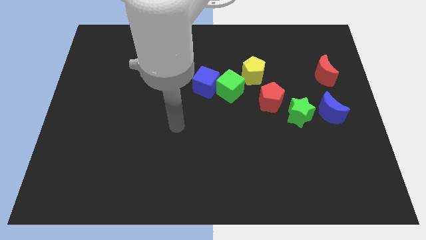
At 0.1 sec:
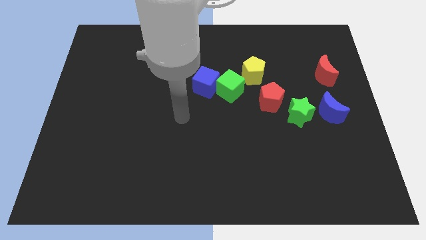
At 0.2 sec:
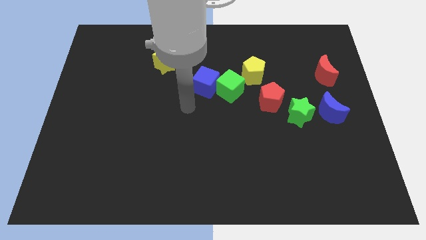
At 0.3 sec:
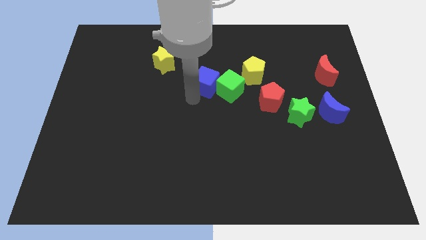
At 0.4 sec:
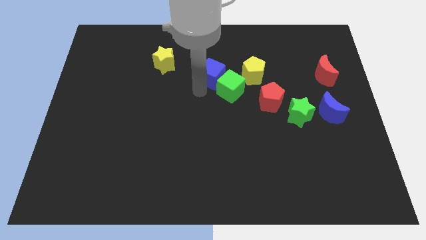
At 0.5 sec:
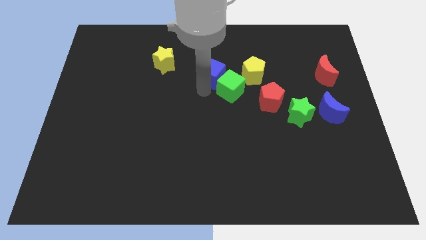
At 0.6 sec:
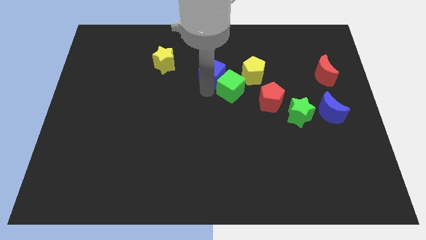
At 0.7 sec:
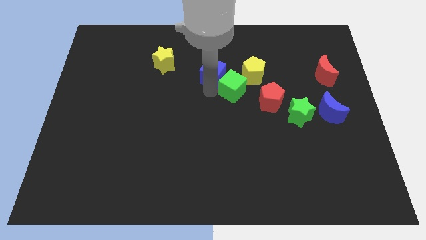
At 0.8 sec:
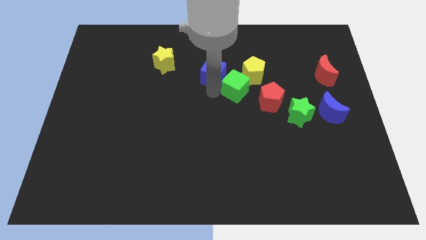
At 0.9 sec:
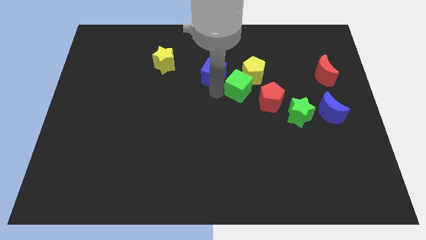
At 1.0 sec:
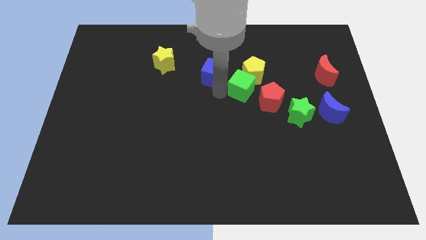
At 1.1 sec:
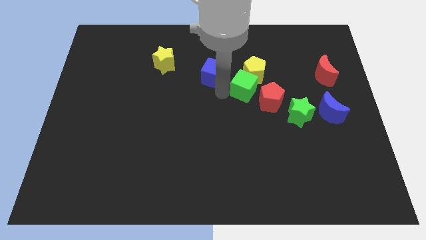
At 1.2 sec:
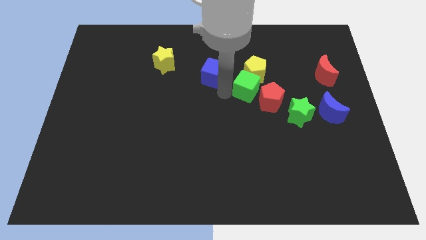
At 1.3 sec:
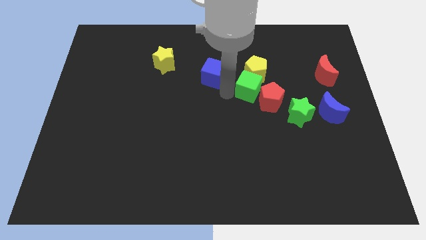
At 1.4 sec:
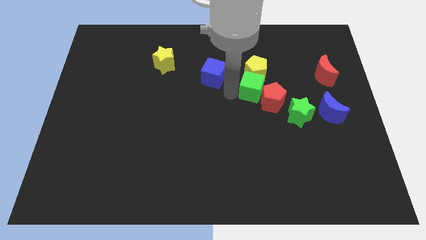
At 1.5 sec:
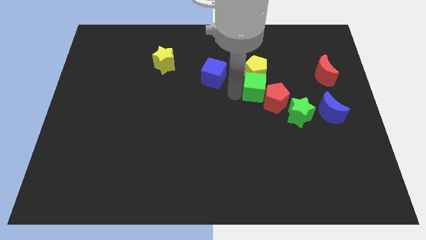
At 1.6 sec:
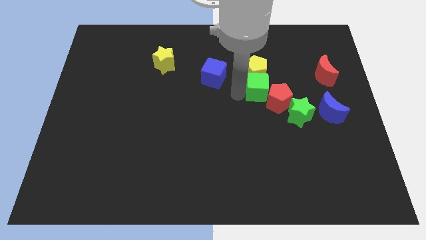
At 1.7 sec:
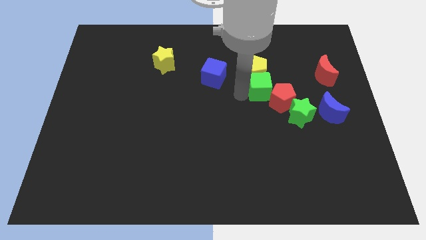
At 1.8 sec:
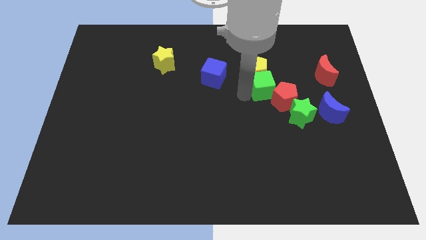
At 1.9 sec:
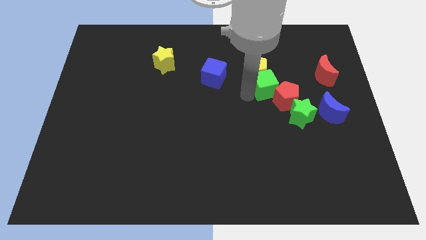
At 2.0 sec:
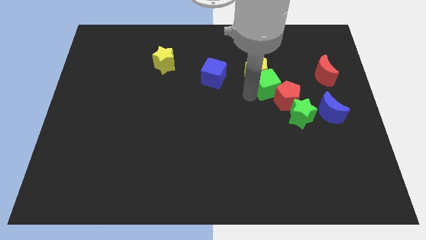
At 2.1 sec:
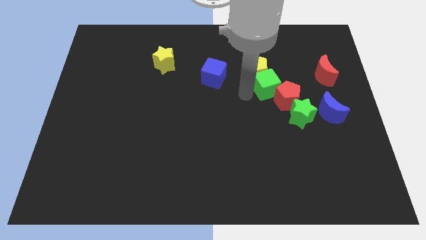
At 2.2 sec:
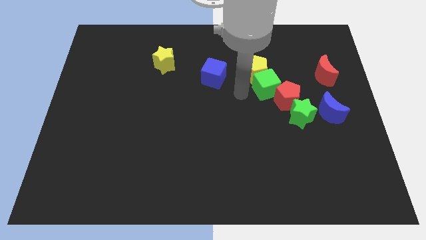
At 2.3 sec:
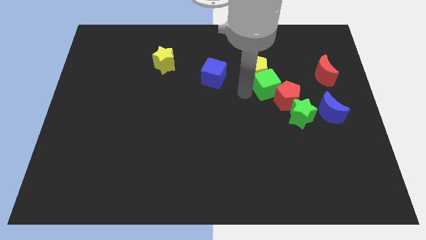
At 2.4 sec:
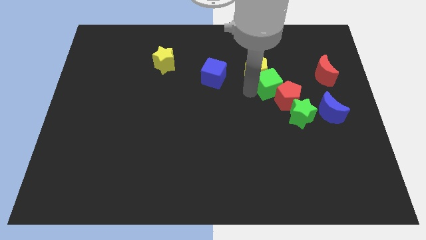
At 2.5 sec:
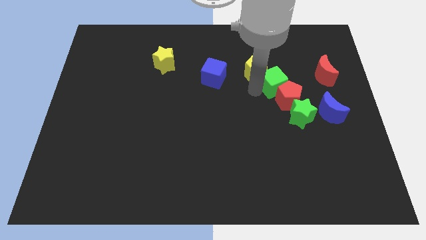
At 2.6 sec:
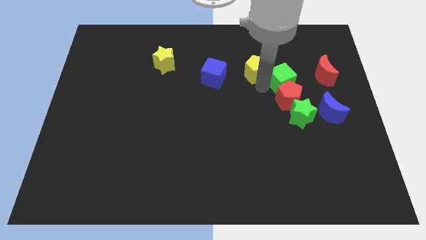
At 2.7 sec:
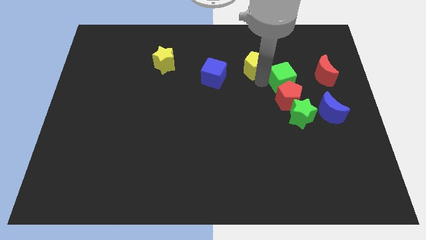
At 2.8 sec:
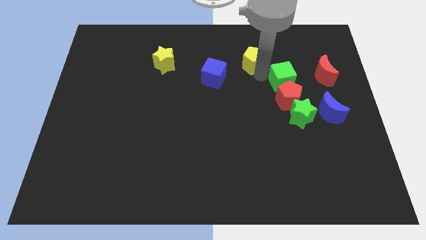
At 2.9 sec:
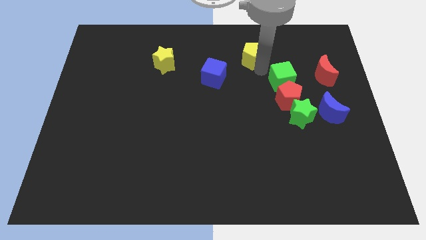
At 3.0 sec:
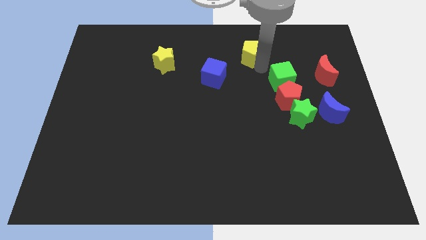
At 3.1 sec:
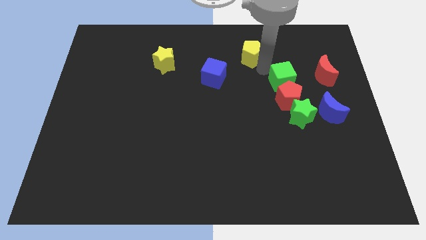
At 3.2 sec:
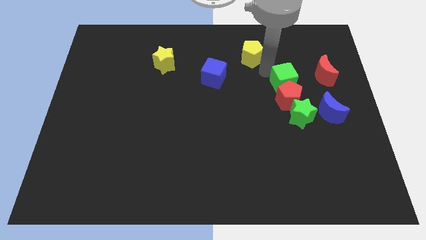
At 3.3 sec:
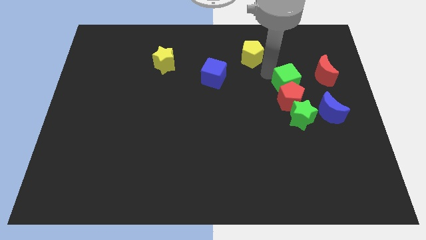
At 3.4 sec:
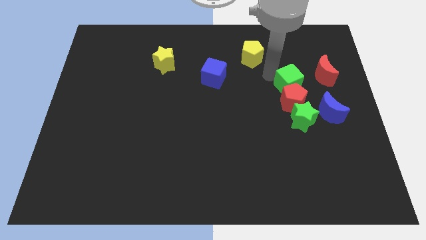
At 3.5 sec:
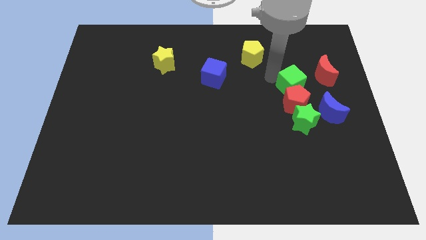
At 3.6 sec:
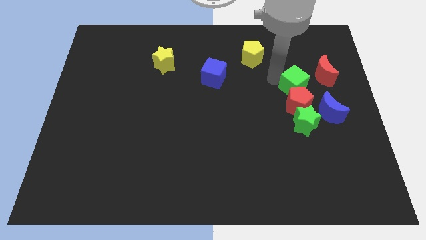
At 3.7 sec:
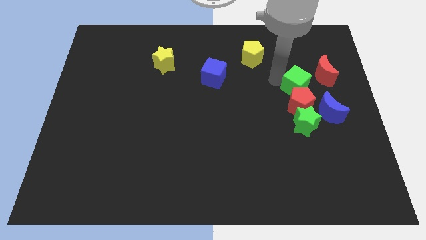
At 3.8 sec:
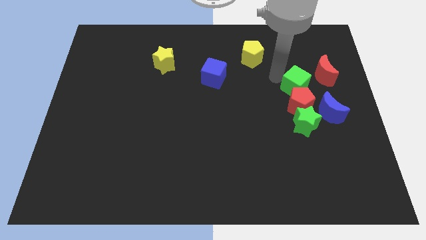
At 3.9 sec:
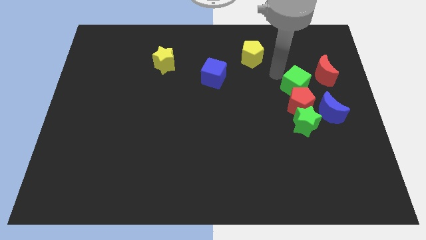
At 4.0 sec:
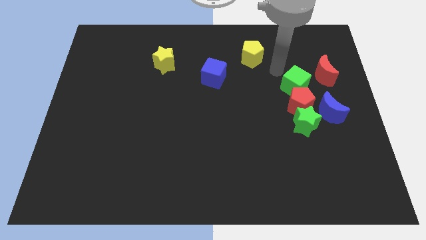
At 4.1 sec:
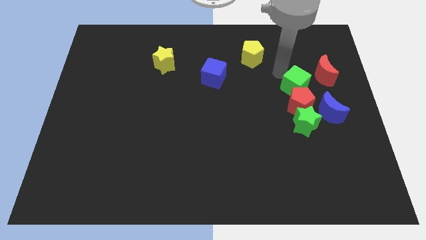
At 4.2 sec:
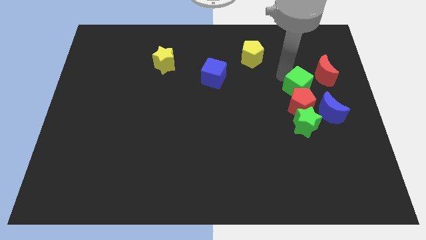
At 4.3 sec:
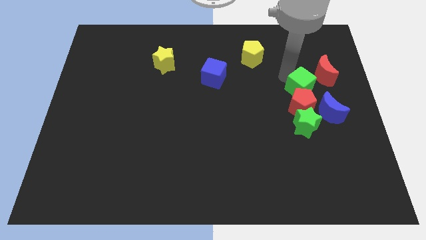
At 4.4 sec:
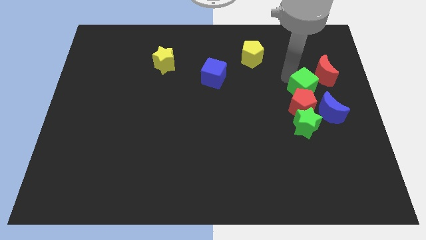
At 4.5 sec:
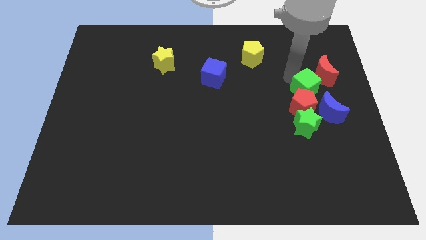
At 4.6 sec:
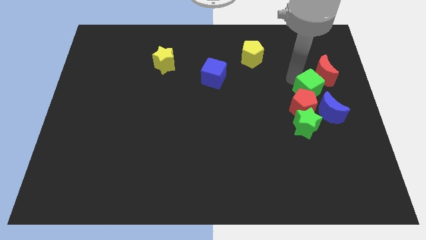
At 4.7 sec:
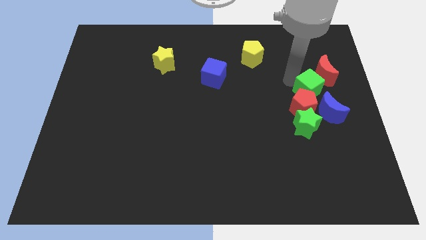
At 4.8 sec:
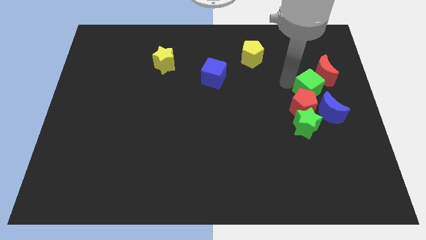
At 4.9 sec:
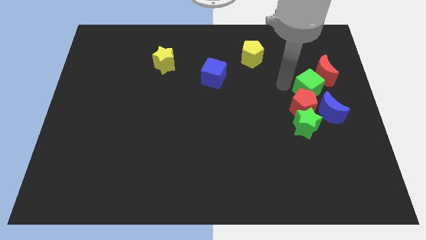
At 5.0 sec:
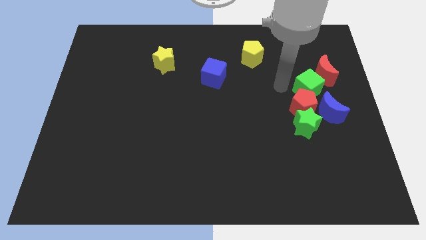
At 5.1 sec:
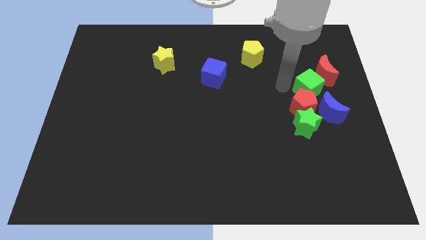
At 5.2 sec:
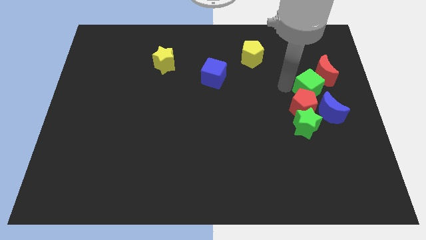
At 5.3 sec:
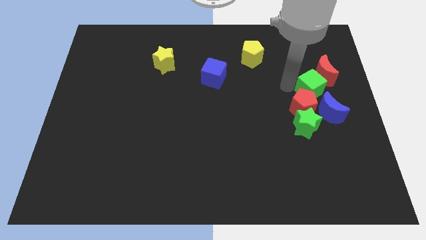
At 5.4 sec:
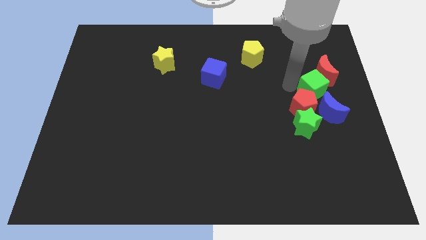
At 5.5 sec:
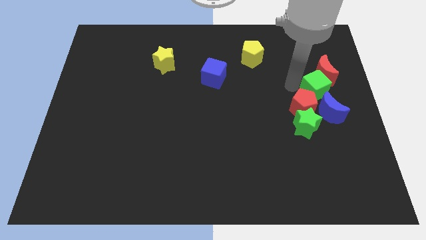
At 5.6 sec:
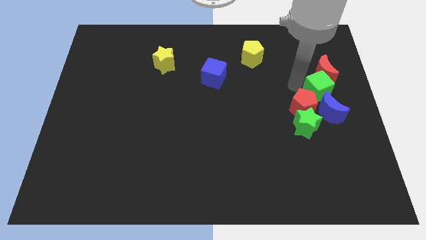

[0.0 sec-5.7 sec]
push the green cube to the right side of the board

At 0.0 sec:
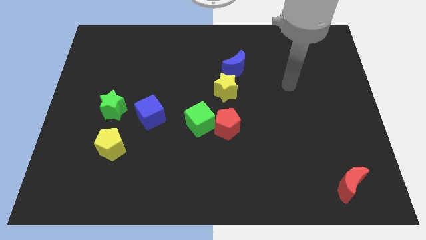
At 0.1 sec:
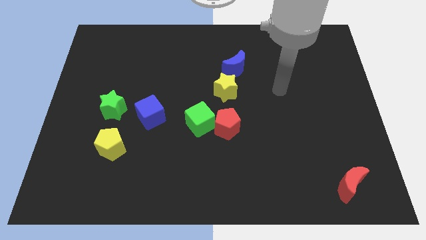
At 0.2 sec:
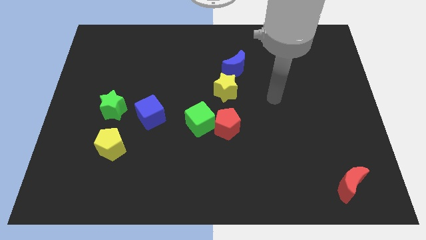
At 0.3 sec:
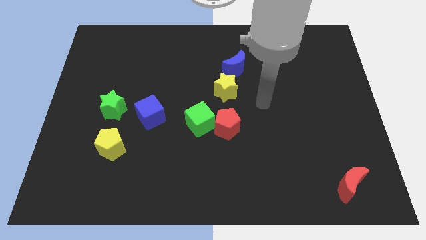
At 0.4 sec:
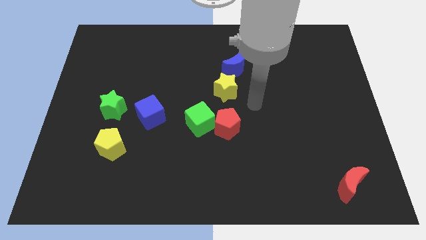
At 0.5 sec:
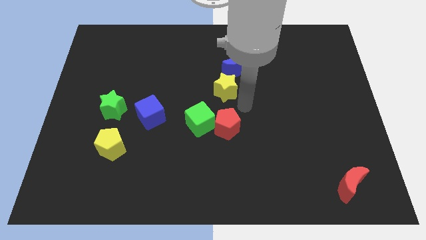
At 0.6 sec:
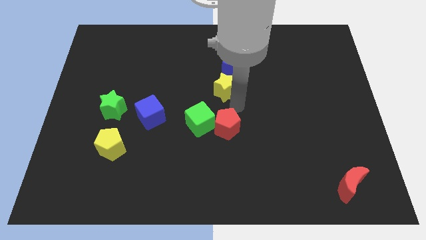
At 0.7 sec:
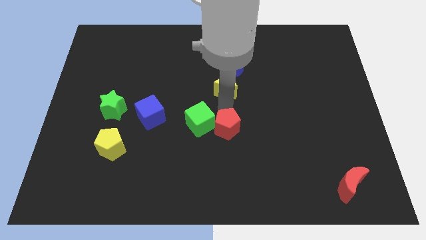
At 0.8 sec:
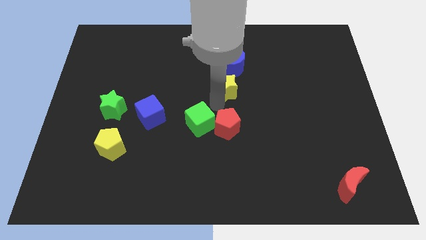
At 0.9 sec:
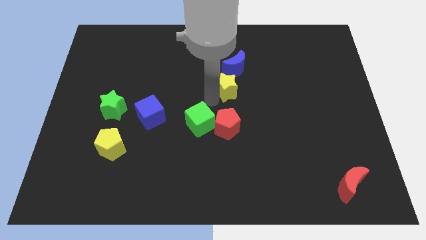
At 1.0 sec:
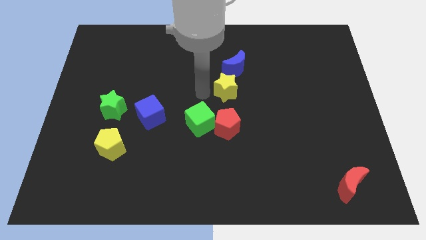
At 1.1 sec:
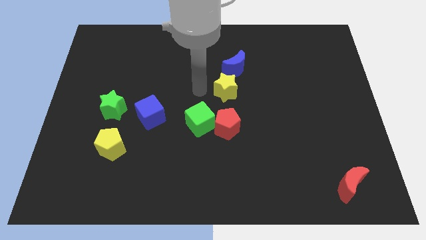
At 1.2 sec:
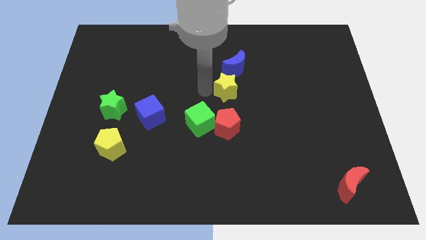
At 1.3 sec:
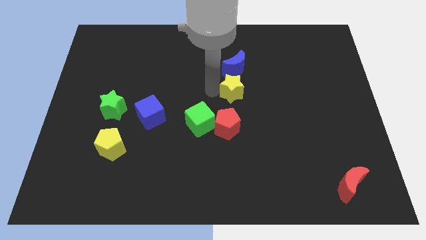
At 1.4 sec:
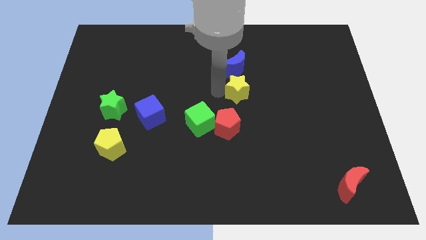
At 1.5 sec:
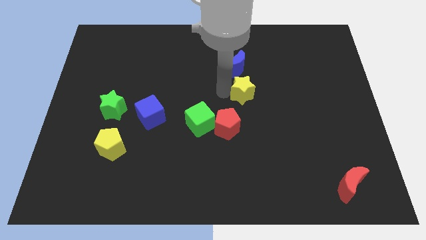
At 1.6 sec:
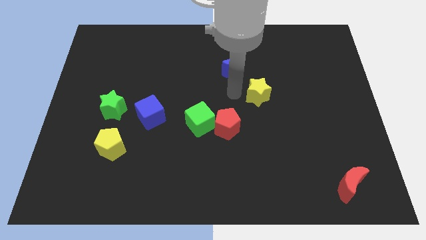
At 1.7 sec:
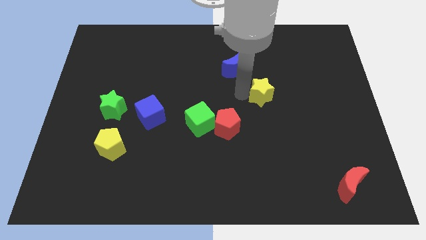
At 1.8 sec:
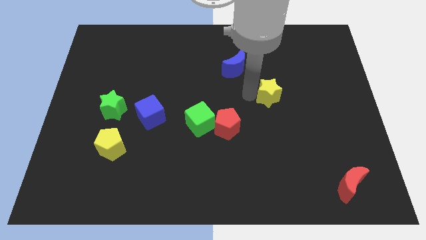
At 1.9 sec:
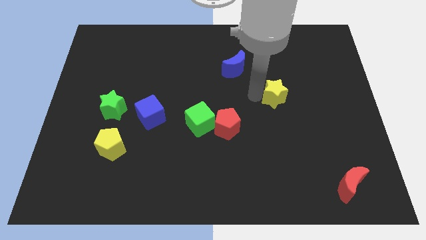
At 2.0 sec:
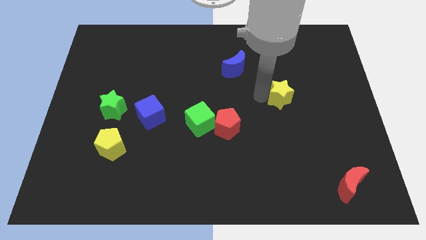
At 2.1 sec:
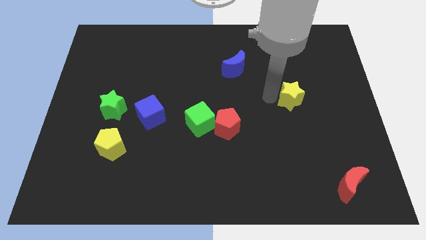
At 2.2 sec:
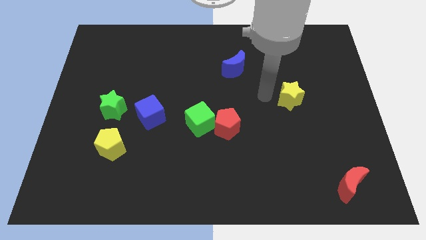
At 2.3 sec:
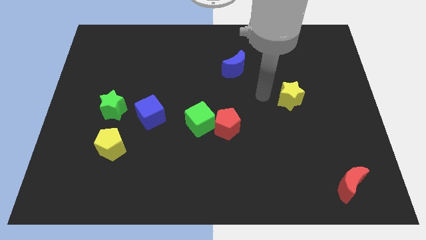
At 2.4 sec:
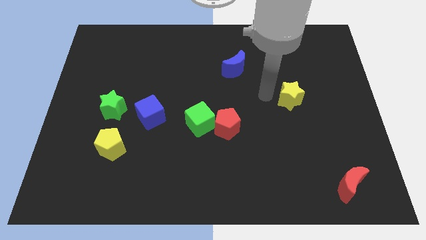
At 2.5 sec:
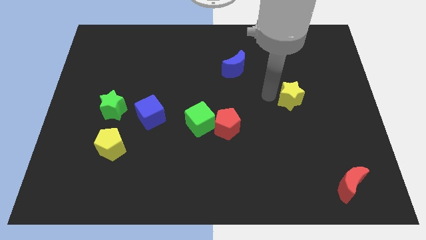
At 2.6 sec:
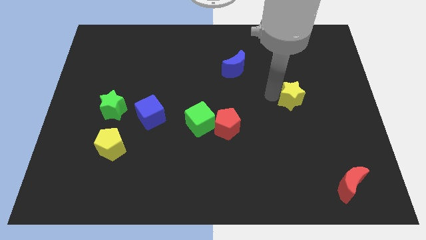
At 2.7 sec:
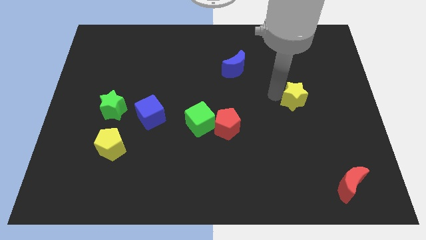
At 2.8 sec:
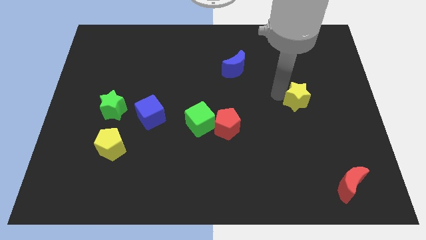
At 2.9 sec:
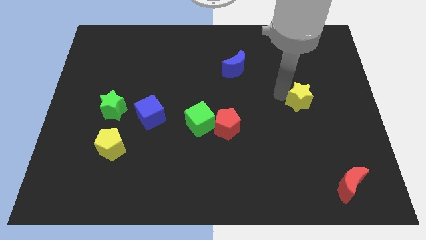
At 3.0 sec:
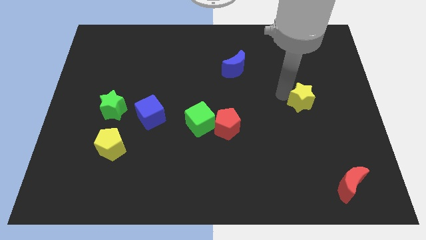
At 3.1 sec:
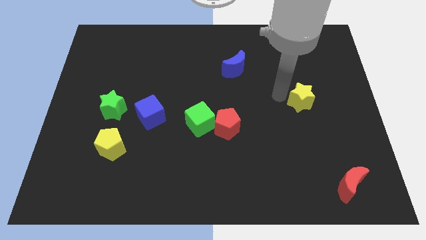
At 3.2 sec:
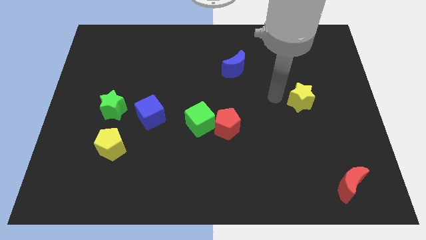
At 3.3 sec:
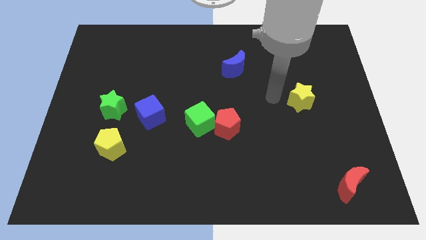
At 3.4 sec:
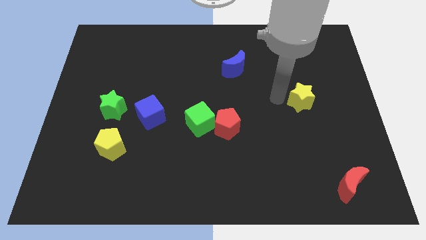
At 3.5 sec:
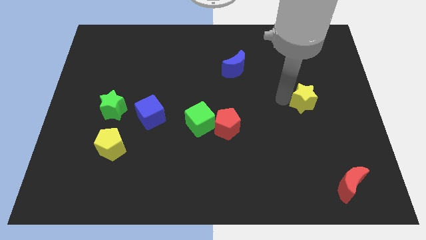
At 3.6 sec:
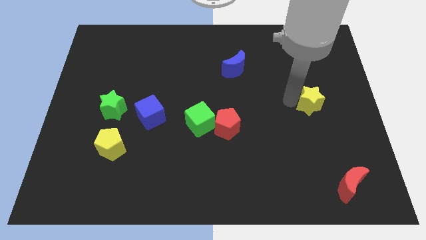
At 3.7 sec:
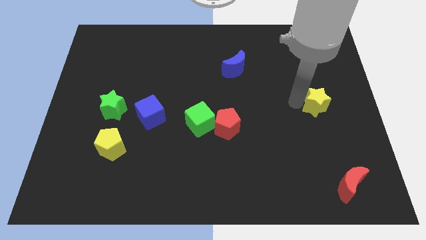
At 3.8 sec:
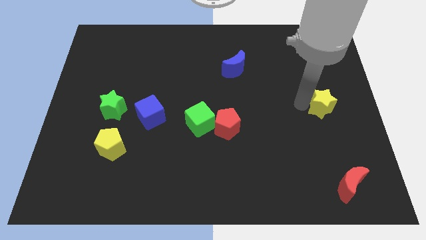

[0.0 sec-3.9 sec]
put the yellow star to the right side of the board
